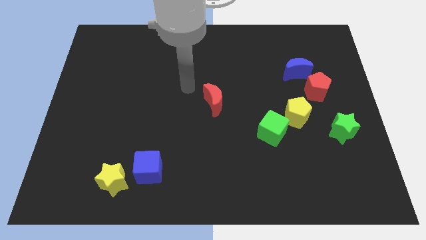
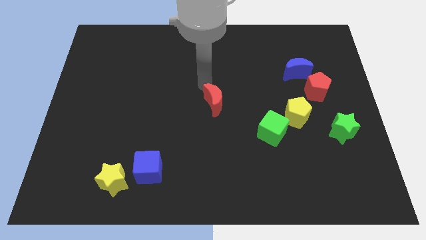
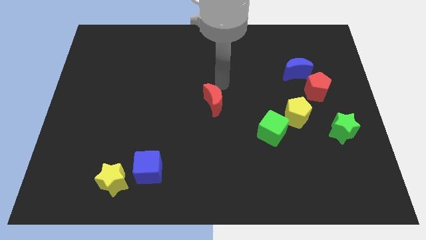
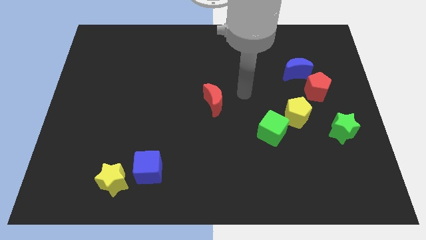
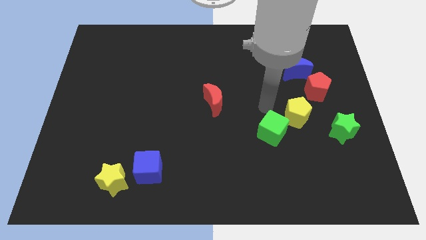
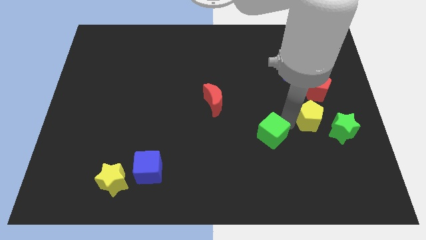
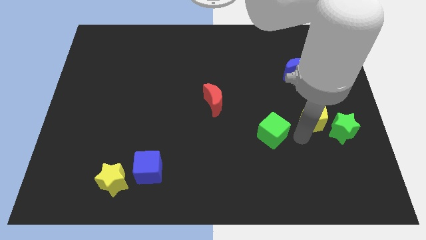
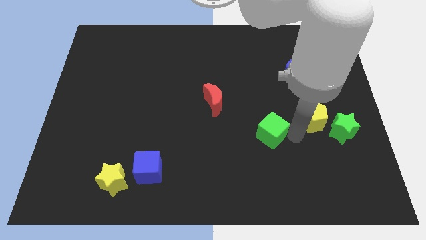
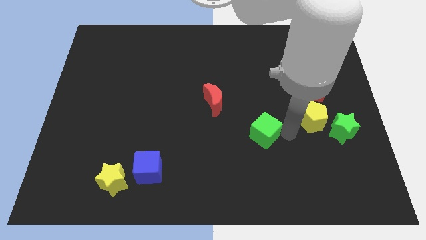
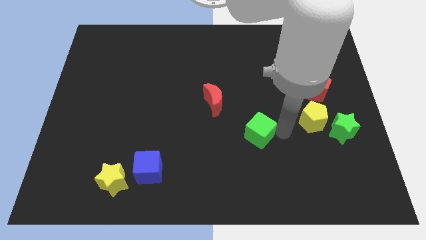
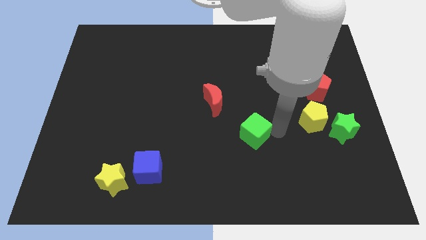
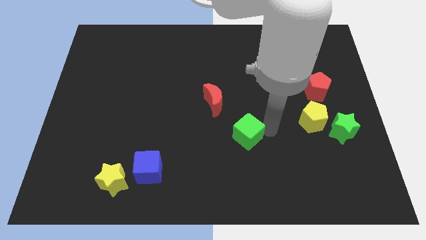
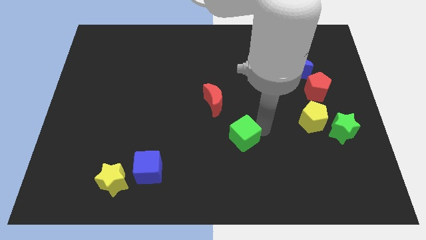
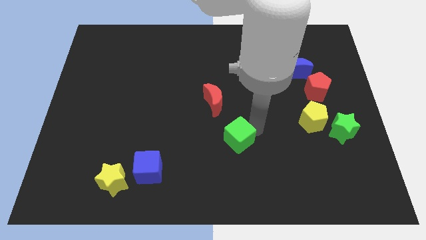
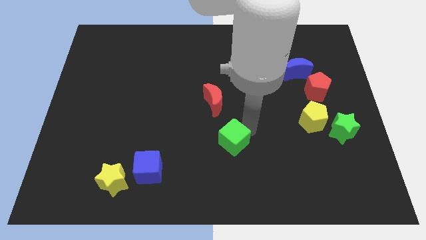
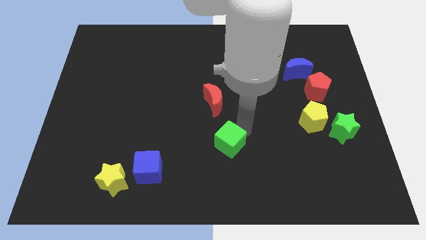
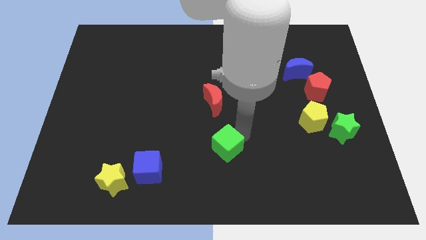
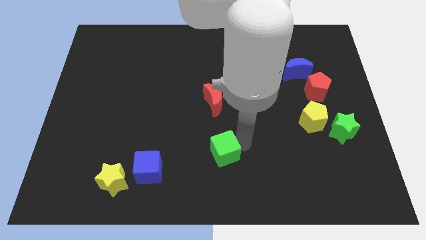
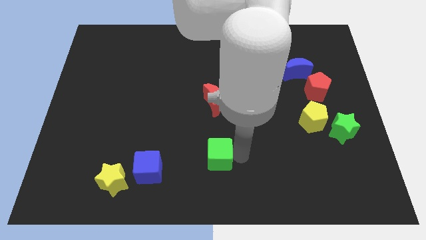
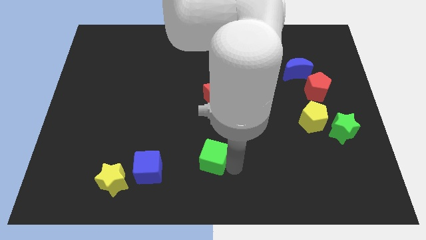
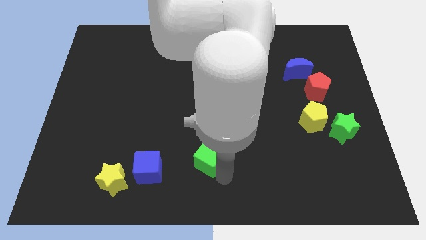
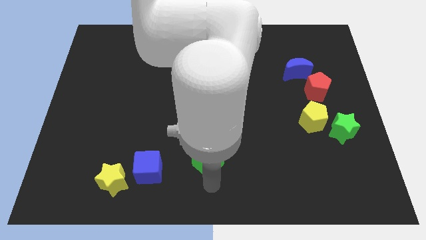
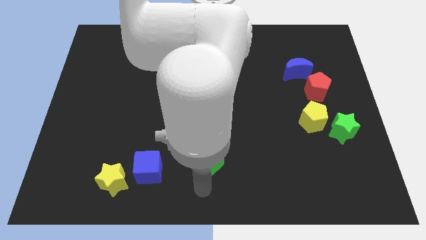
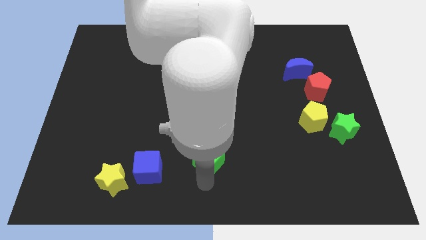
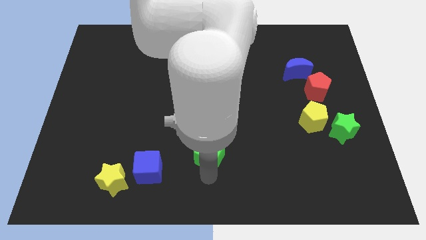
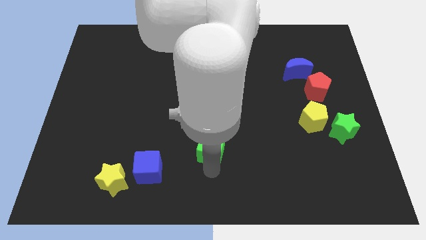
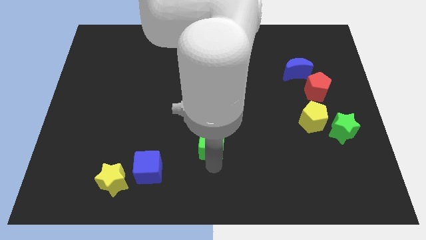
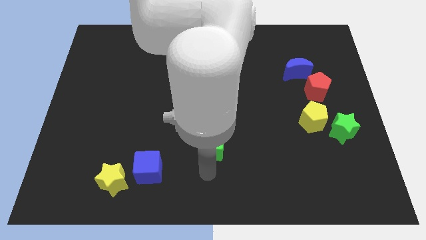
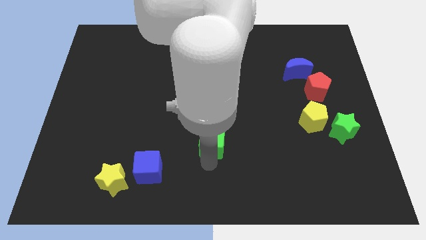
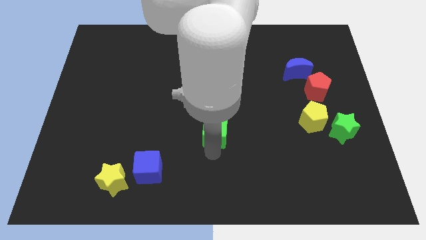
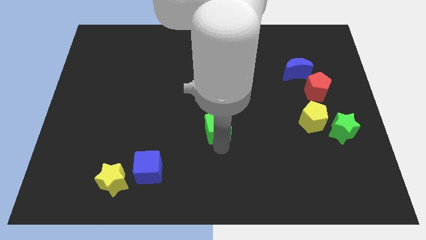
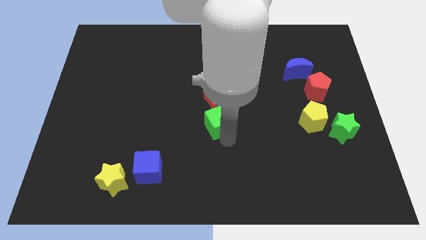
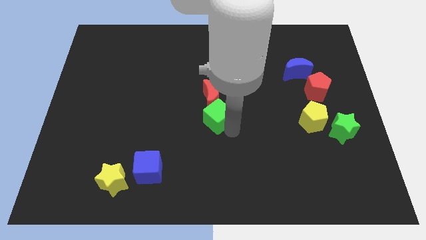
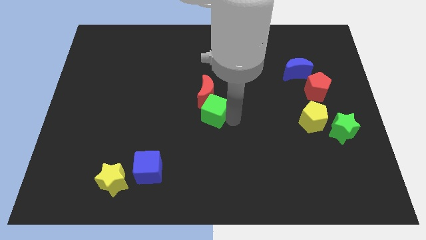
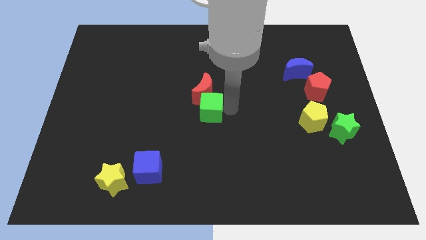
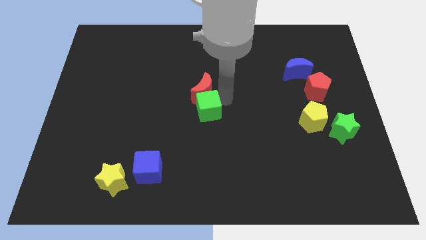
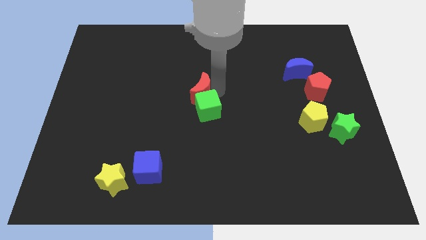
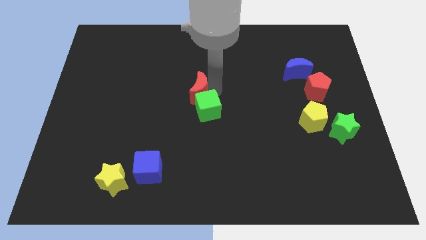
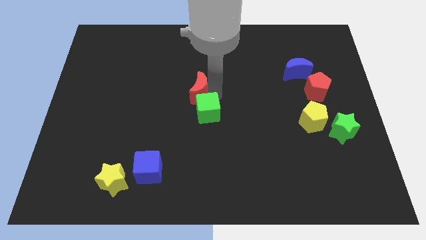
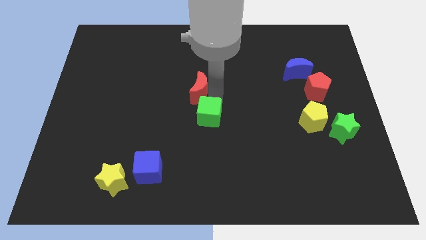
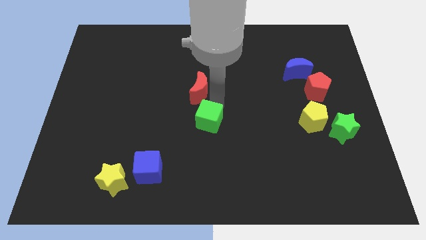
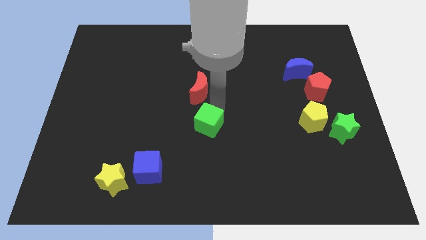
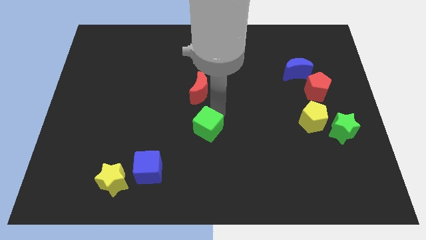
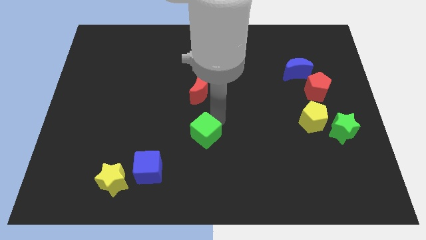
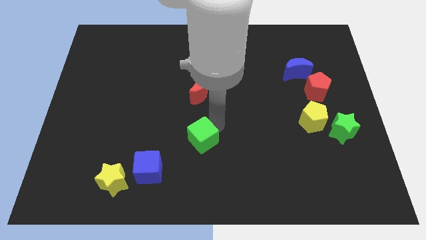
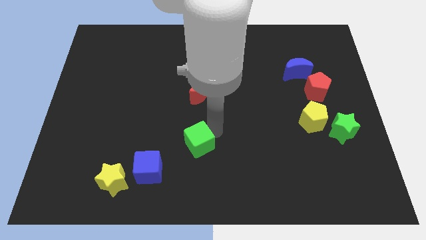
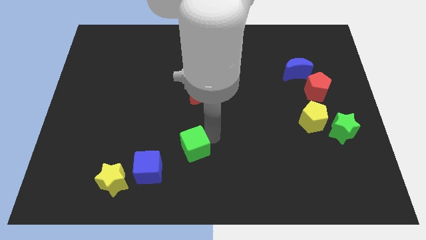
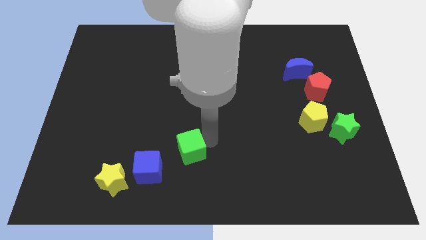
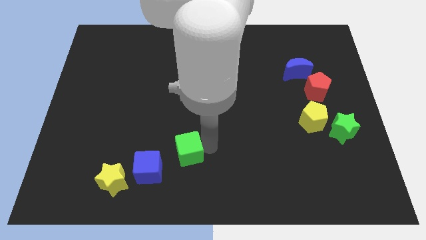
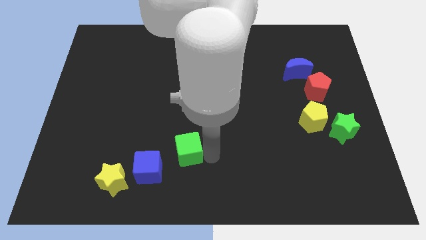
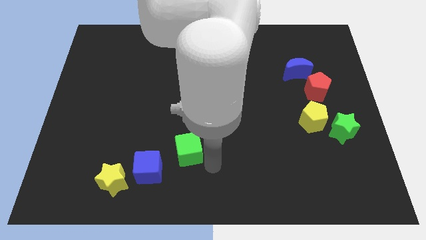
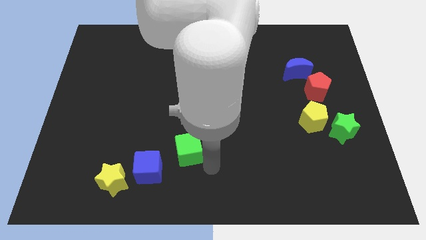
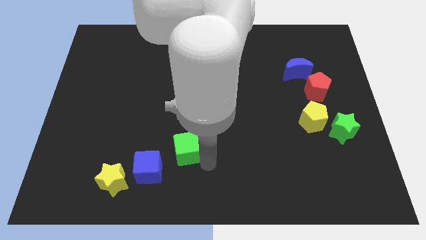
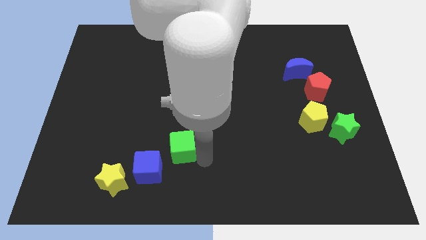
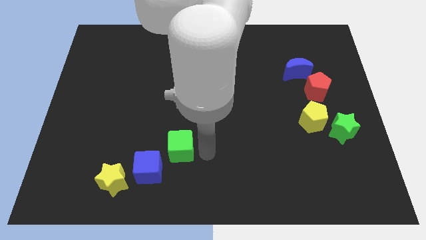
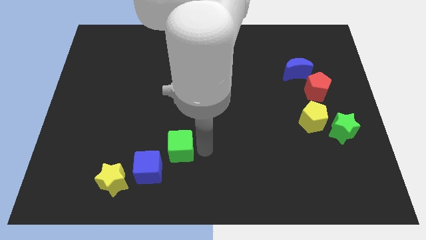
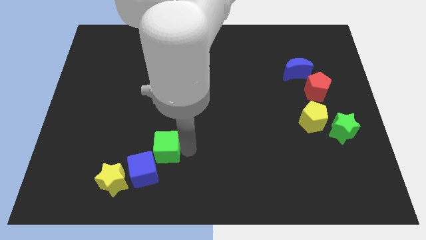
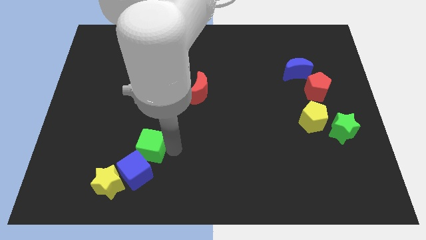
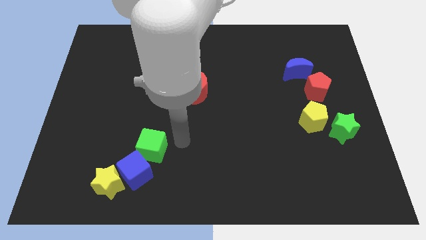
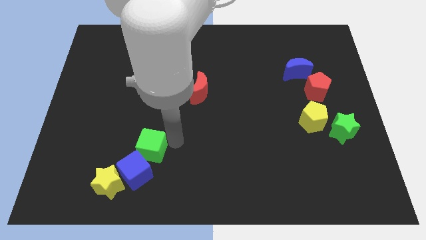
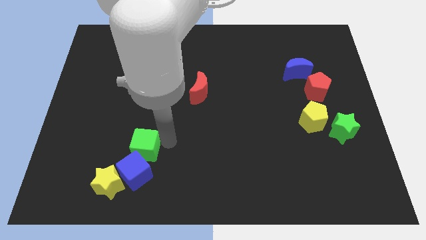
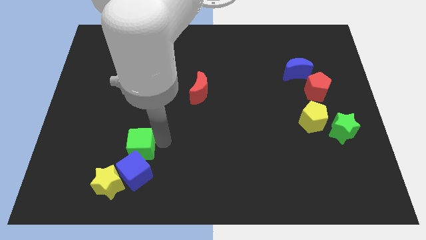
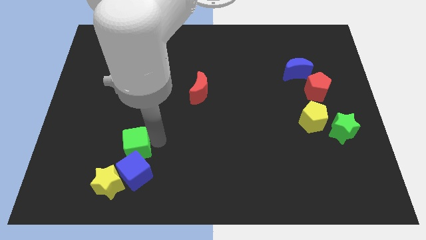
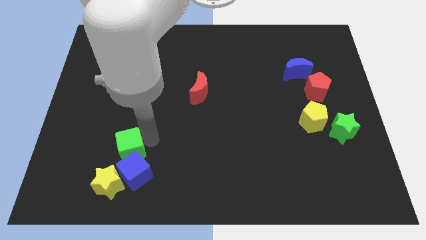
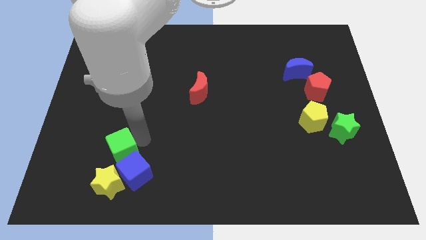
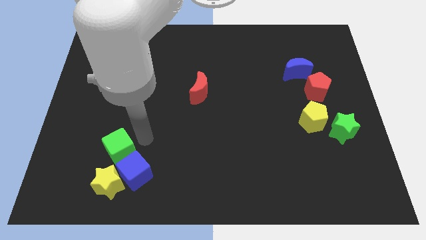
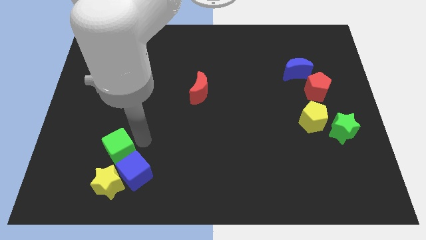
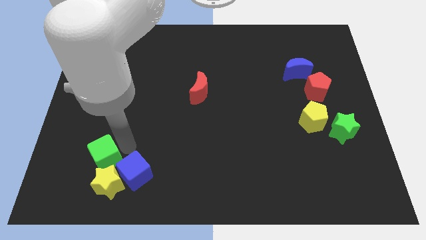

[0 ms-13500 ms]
slide the green cube to the top left of the yellow star

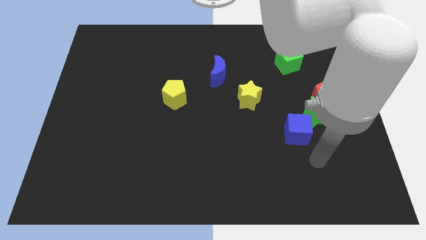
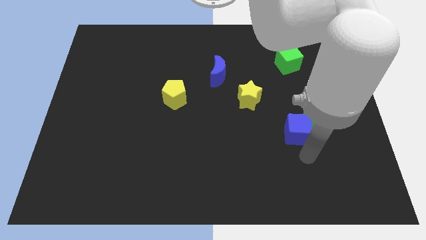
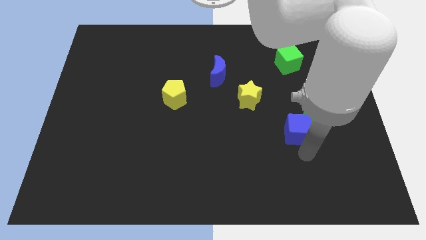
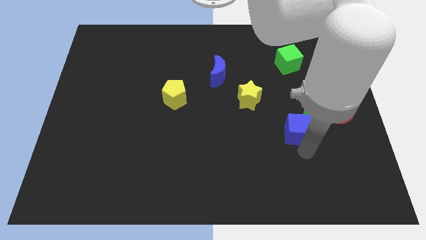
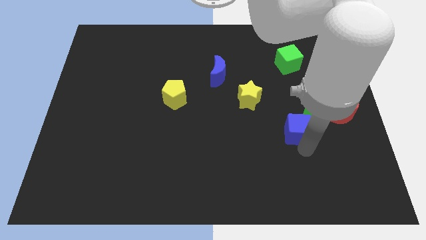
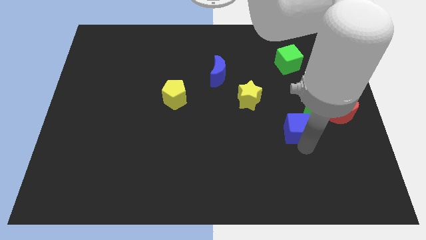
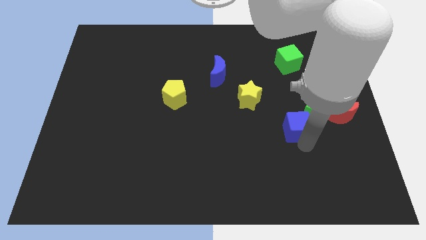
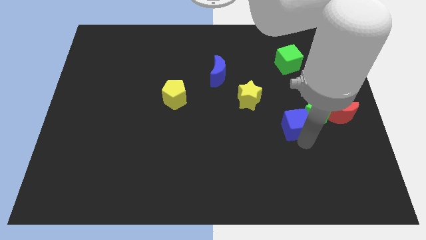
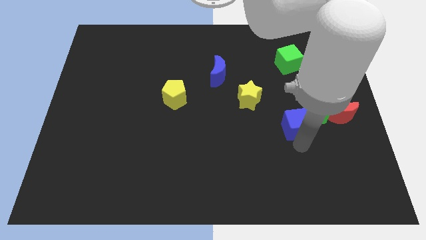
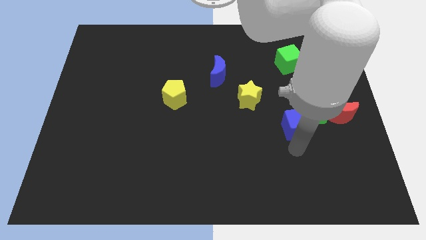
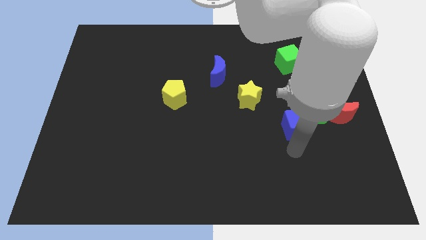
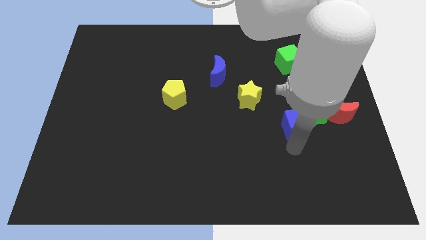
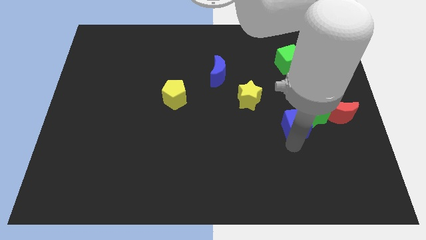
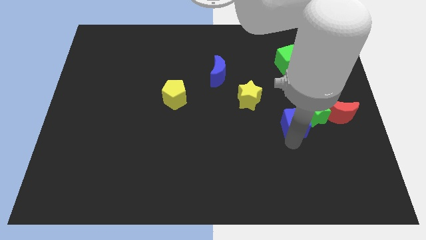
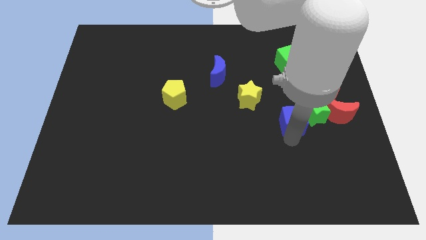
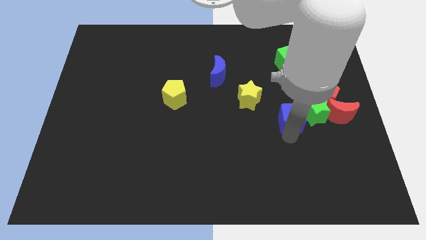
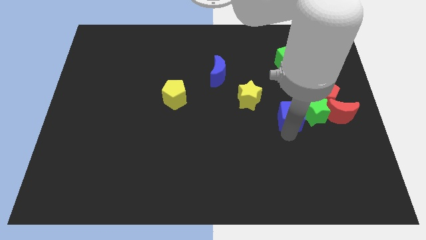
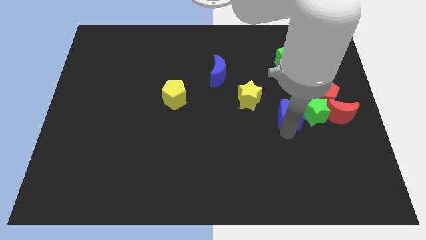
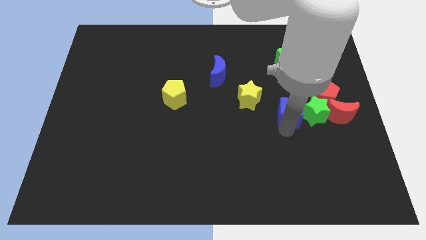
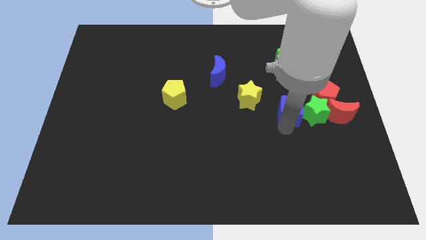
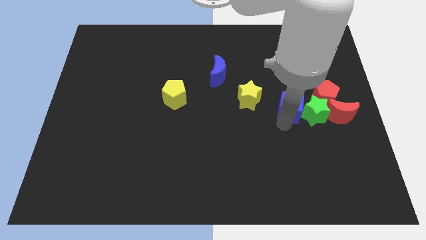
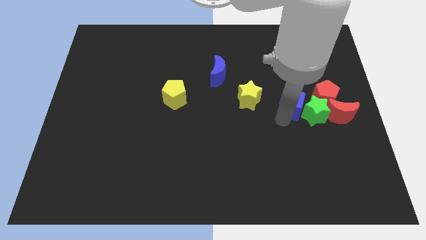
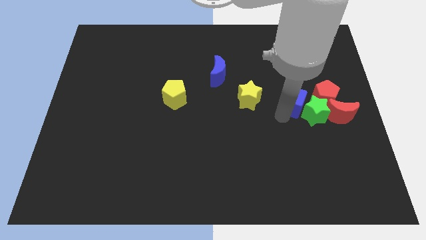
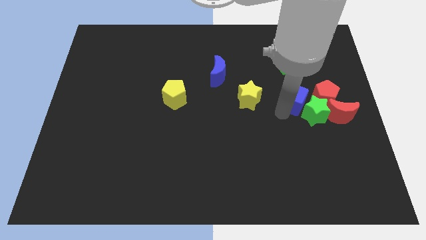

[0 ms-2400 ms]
push the blue cube to the top of the green star
